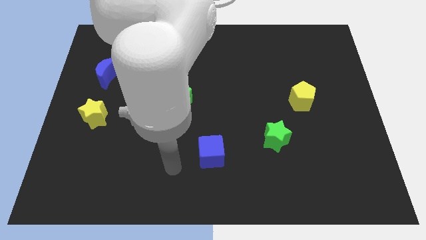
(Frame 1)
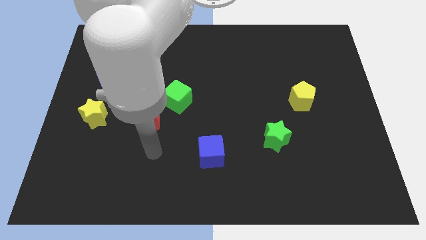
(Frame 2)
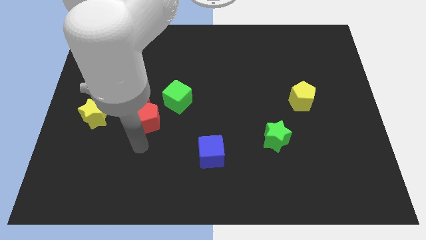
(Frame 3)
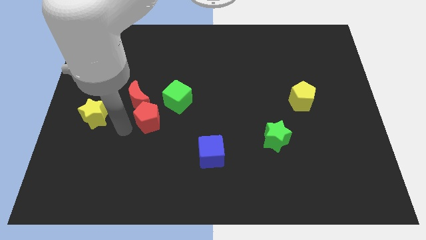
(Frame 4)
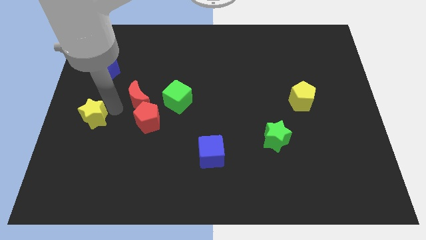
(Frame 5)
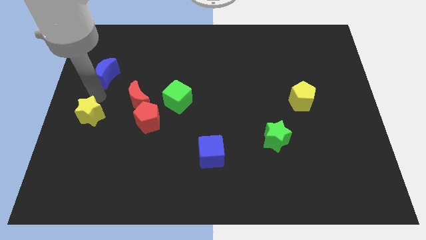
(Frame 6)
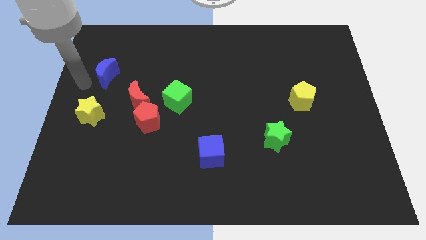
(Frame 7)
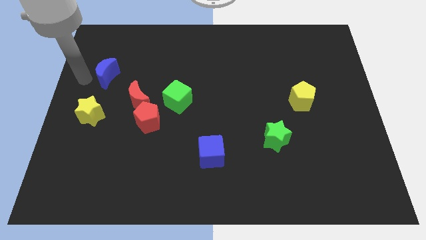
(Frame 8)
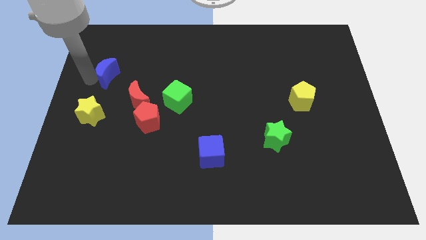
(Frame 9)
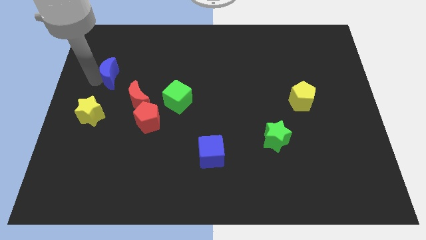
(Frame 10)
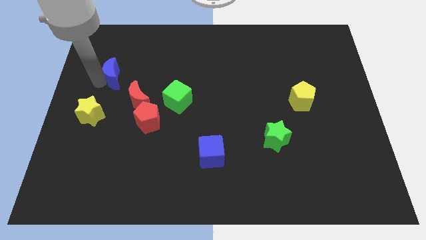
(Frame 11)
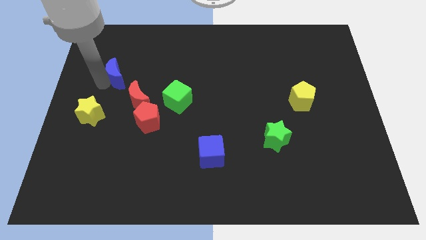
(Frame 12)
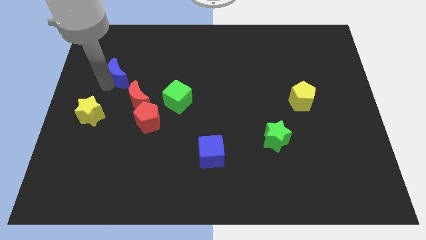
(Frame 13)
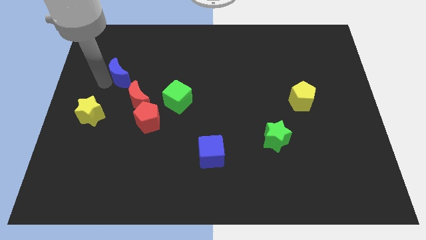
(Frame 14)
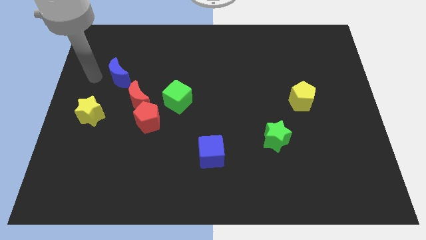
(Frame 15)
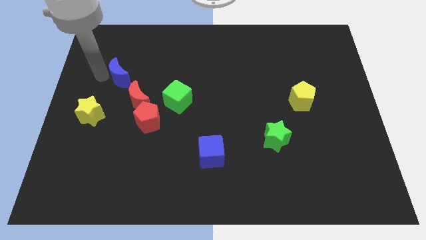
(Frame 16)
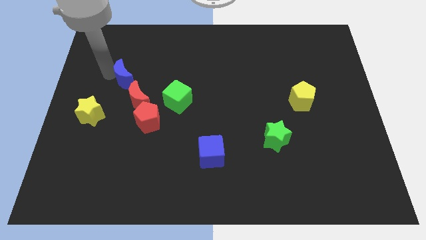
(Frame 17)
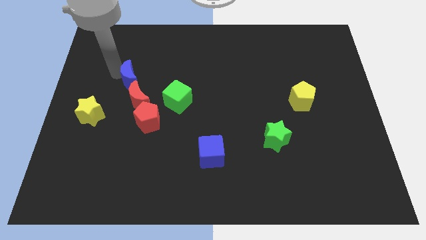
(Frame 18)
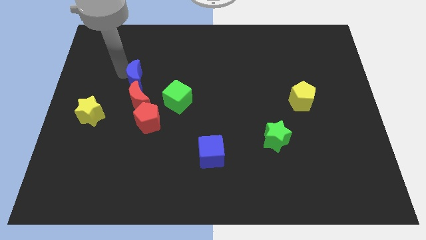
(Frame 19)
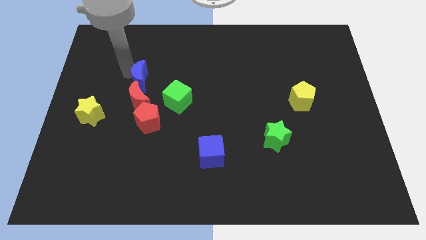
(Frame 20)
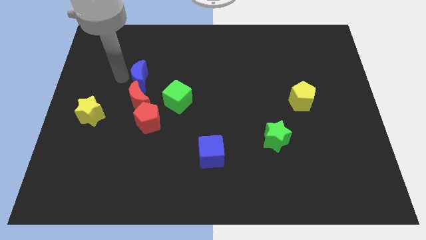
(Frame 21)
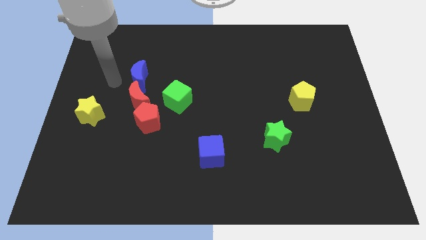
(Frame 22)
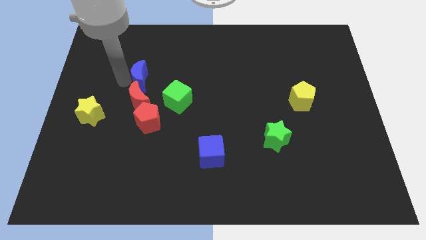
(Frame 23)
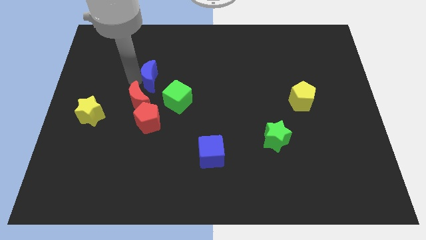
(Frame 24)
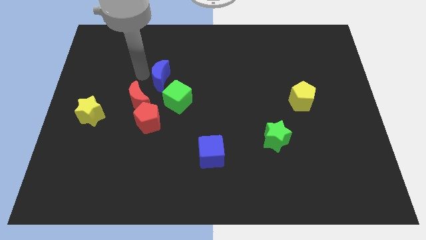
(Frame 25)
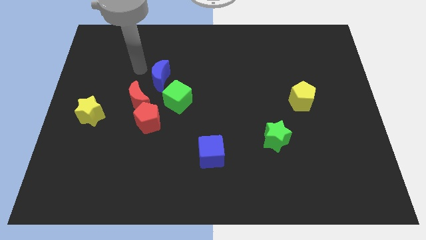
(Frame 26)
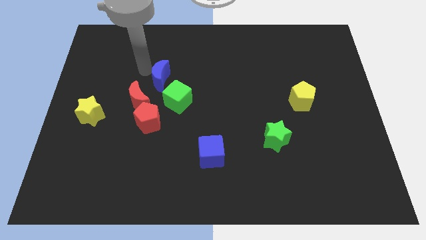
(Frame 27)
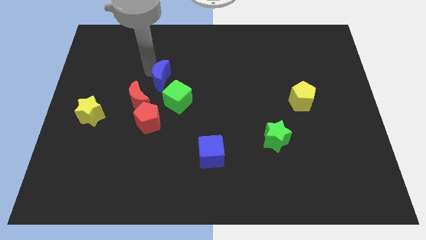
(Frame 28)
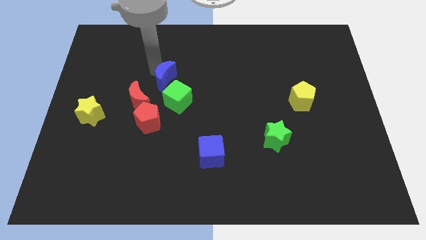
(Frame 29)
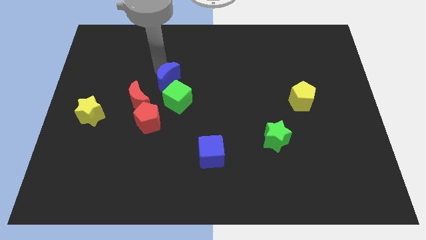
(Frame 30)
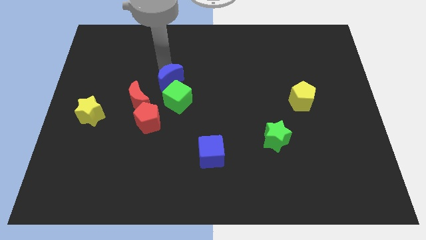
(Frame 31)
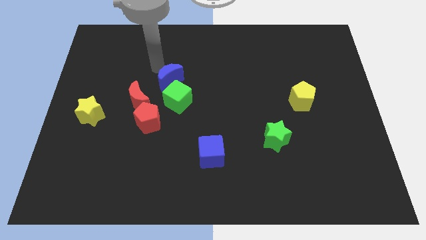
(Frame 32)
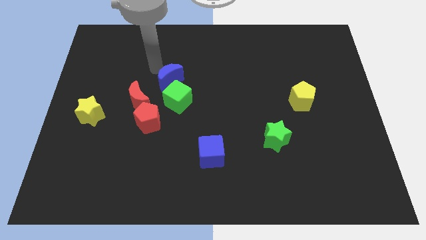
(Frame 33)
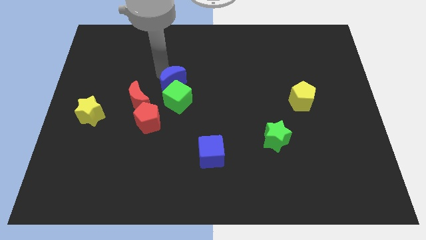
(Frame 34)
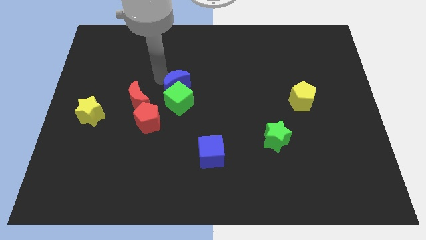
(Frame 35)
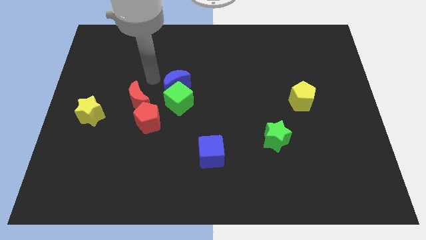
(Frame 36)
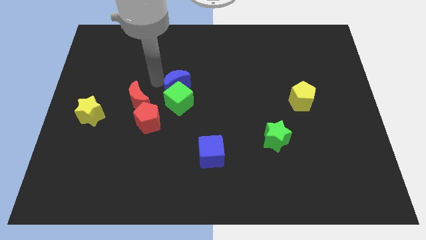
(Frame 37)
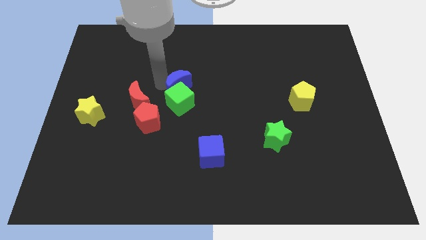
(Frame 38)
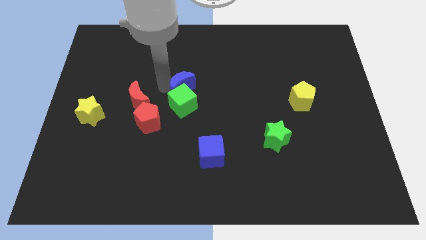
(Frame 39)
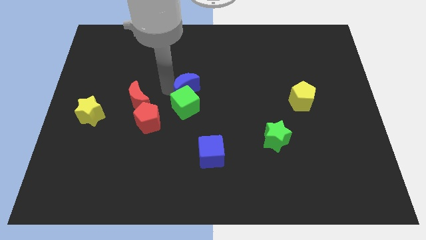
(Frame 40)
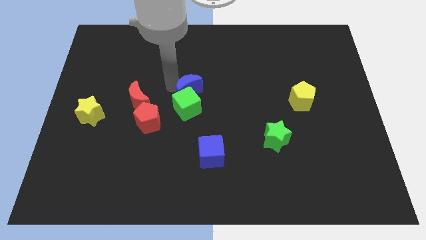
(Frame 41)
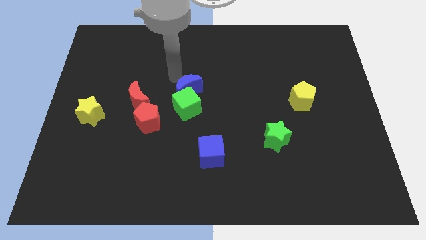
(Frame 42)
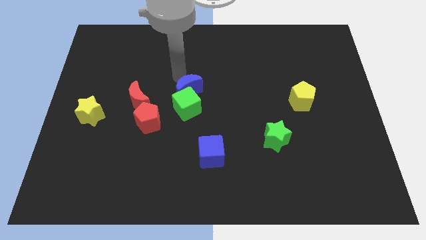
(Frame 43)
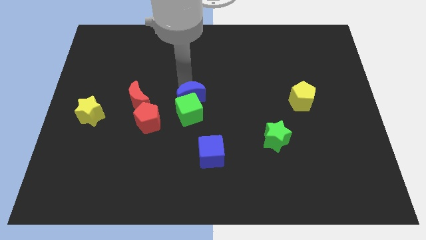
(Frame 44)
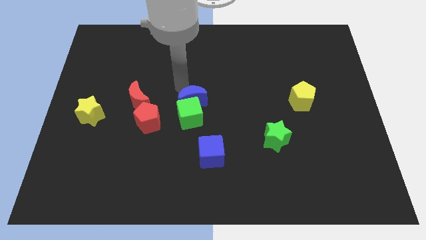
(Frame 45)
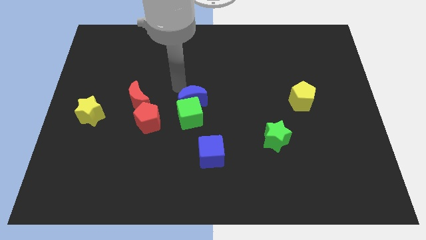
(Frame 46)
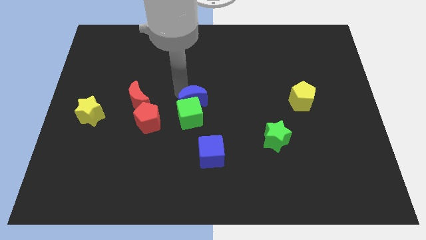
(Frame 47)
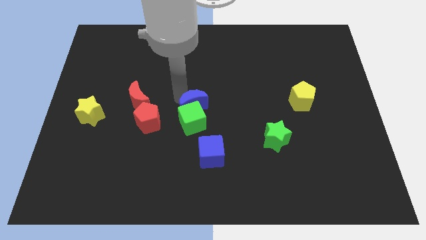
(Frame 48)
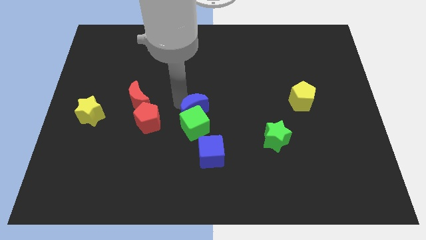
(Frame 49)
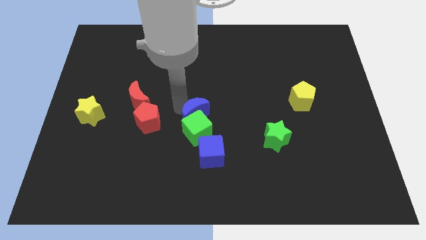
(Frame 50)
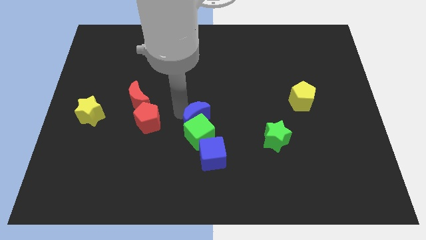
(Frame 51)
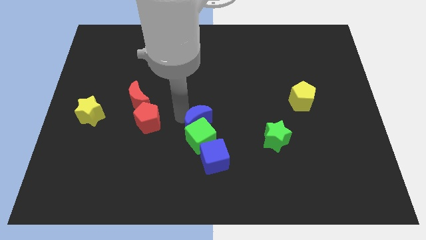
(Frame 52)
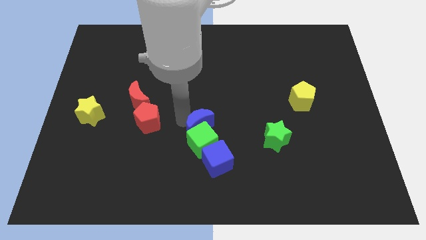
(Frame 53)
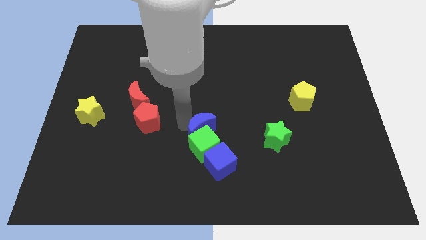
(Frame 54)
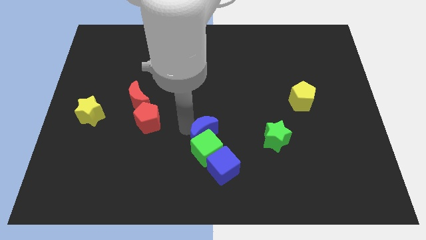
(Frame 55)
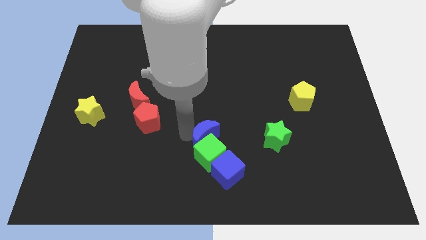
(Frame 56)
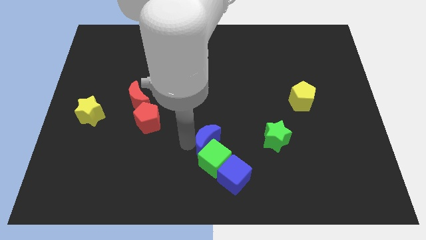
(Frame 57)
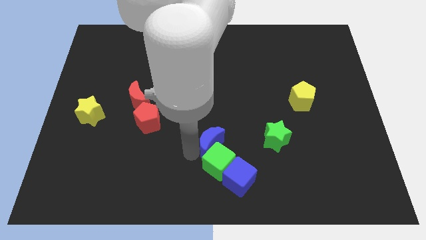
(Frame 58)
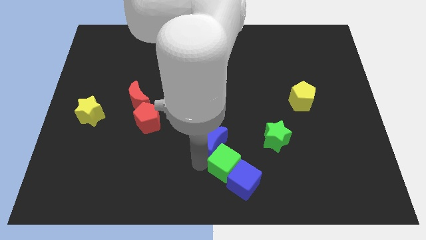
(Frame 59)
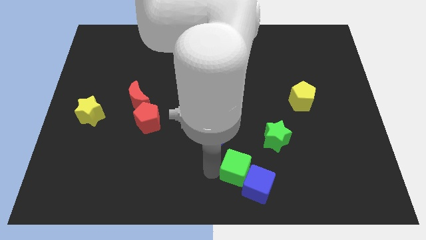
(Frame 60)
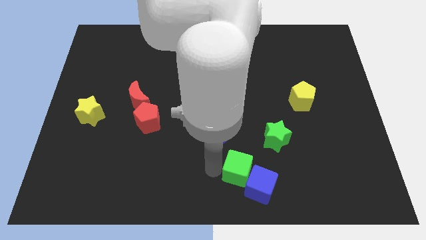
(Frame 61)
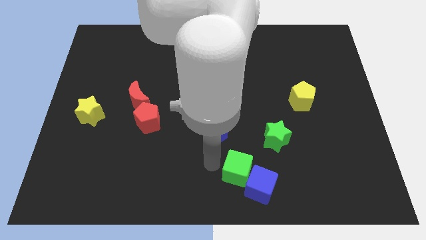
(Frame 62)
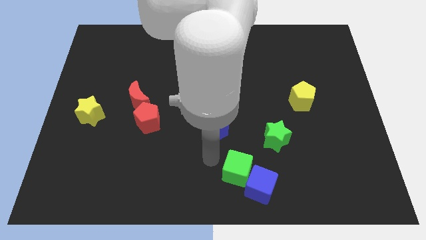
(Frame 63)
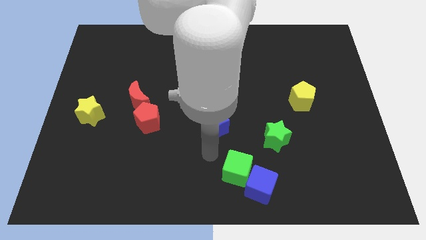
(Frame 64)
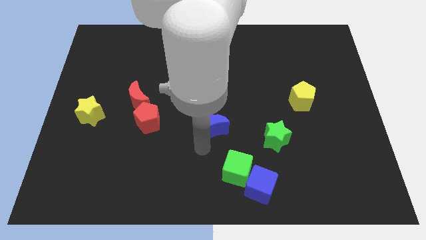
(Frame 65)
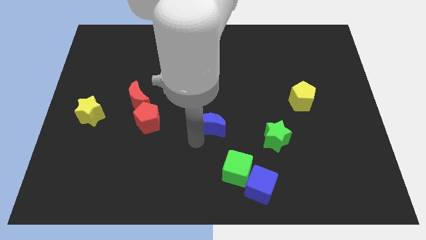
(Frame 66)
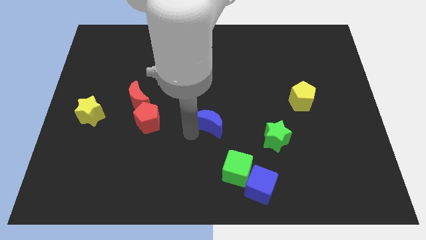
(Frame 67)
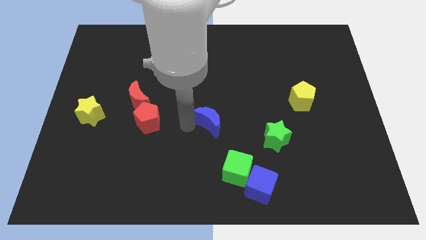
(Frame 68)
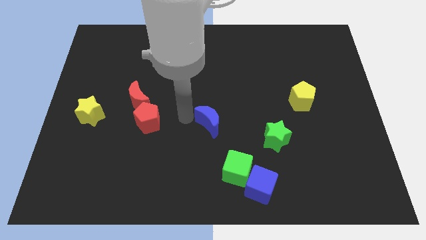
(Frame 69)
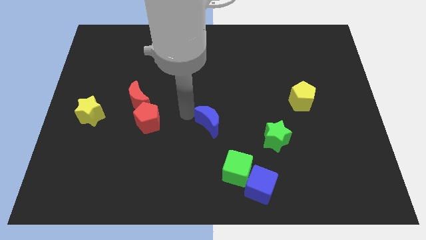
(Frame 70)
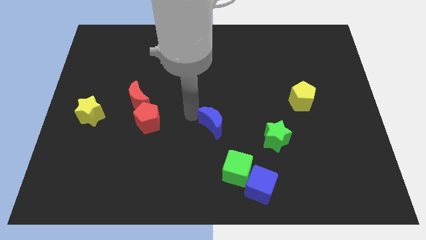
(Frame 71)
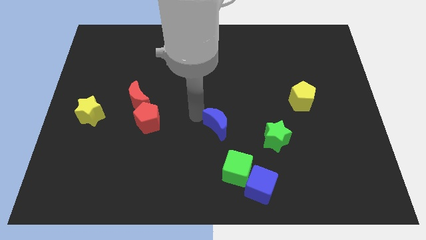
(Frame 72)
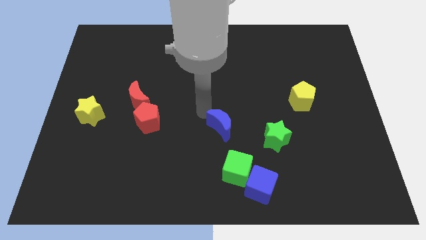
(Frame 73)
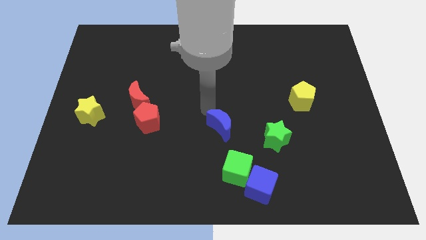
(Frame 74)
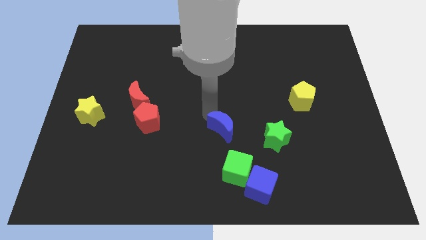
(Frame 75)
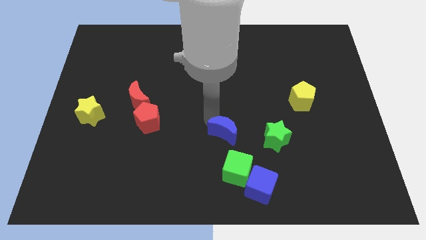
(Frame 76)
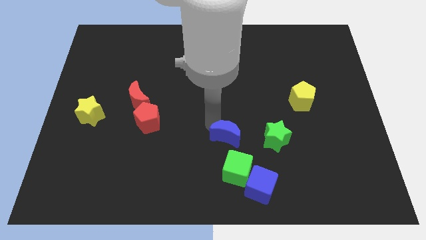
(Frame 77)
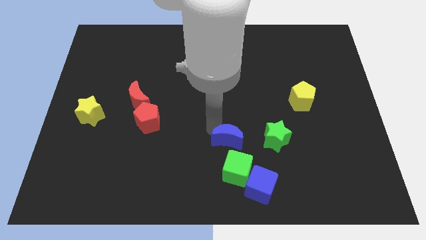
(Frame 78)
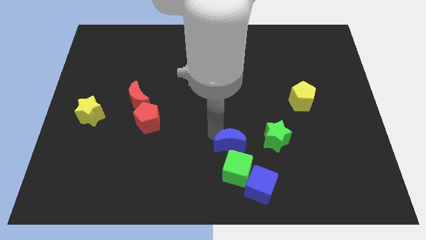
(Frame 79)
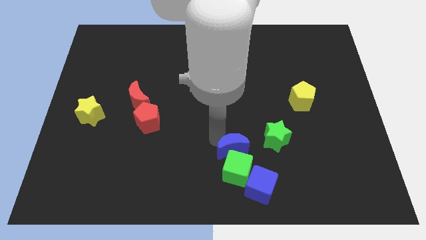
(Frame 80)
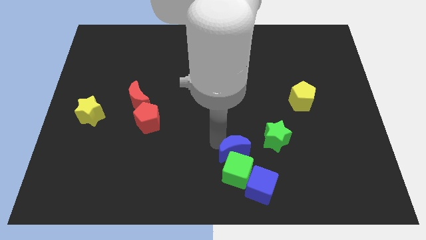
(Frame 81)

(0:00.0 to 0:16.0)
move the blue moon to the bottom left side of the green star
